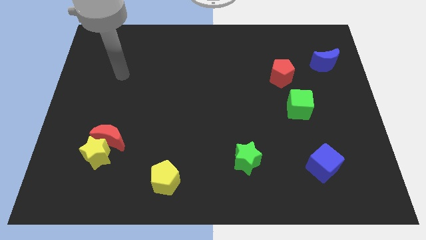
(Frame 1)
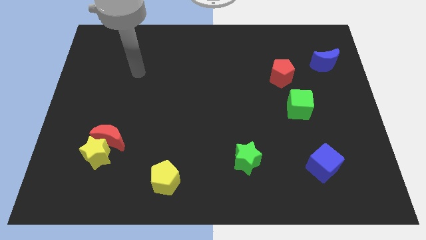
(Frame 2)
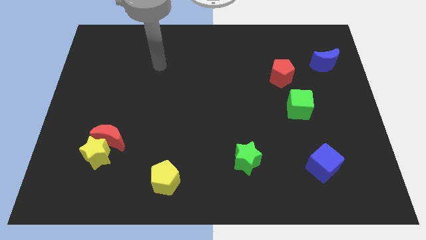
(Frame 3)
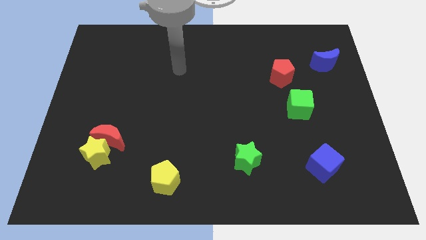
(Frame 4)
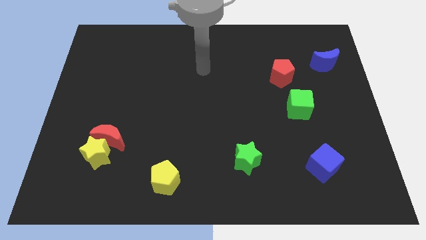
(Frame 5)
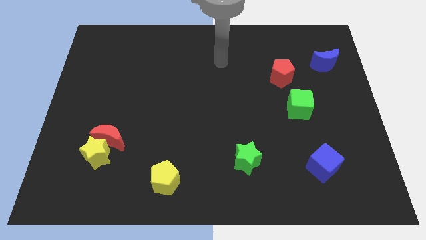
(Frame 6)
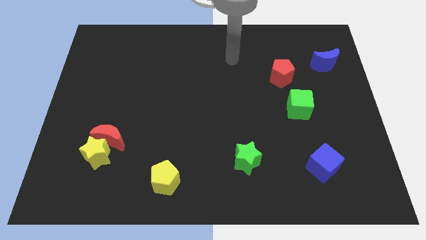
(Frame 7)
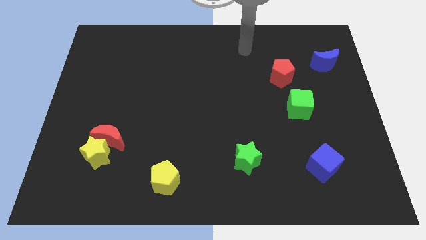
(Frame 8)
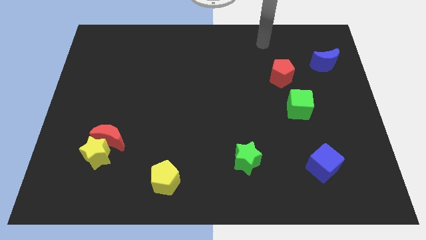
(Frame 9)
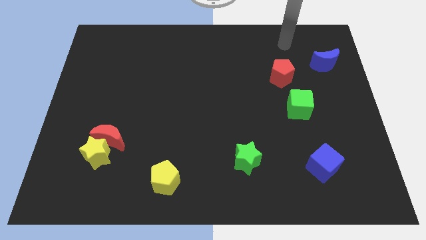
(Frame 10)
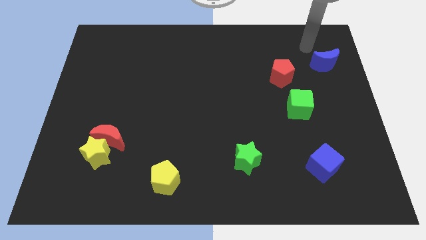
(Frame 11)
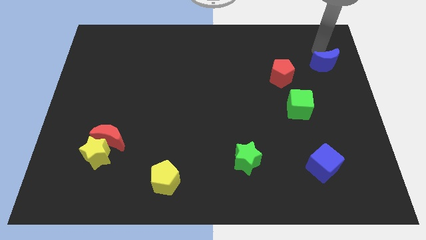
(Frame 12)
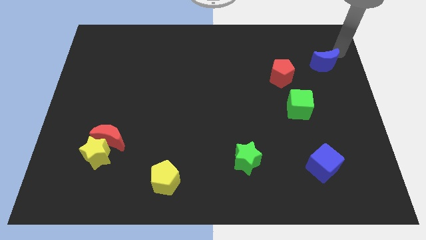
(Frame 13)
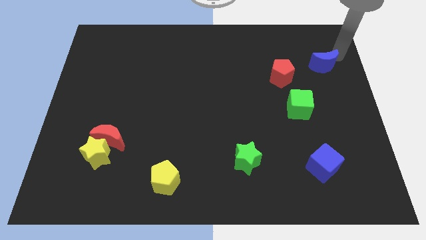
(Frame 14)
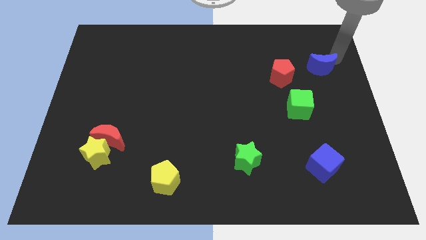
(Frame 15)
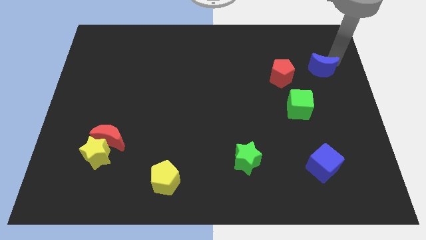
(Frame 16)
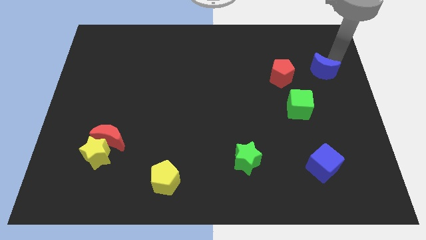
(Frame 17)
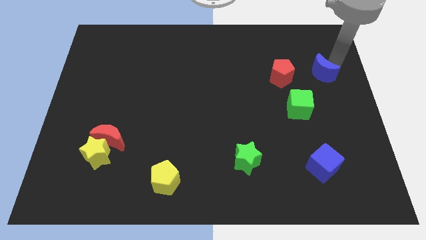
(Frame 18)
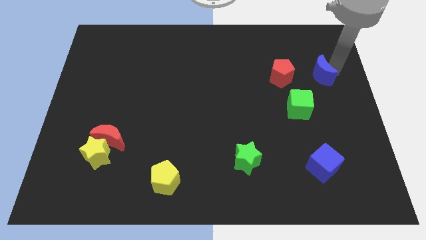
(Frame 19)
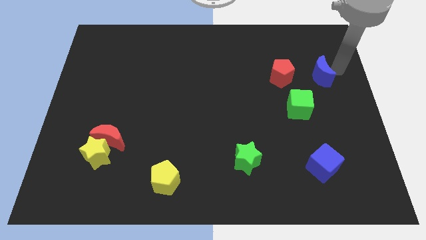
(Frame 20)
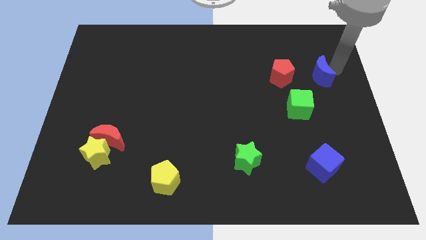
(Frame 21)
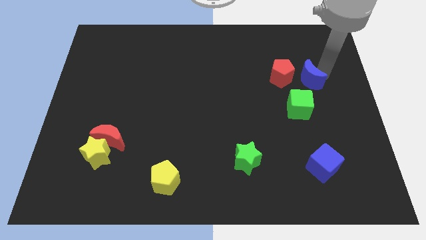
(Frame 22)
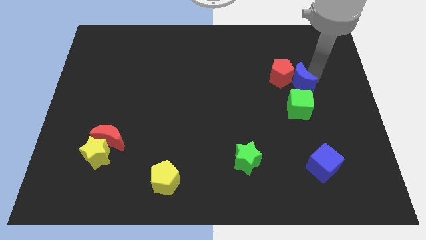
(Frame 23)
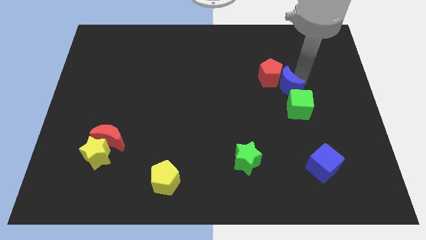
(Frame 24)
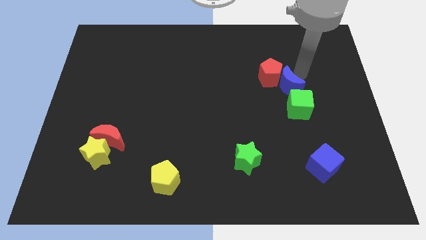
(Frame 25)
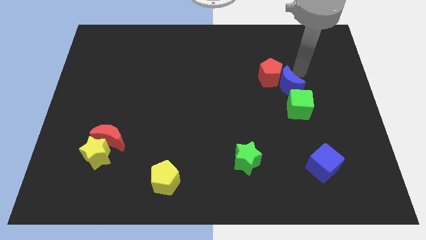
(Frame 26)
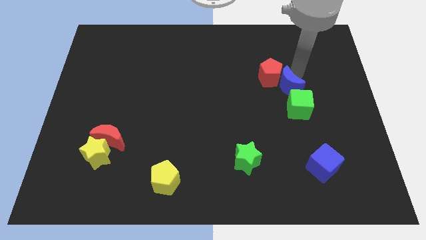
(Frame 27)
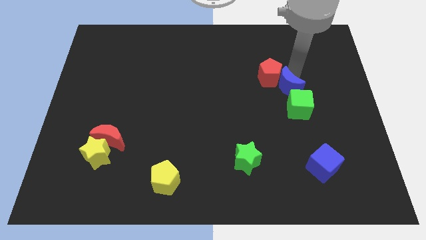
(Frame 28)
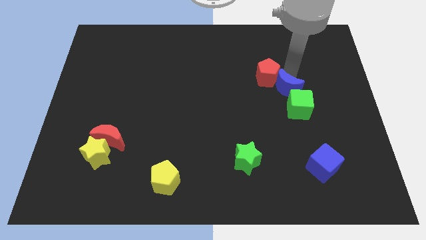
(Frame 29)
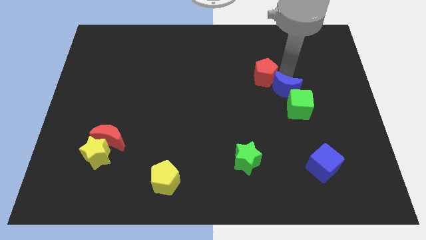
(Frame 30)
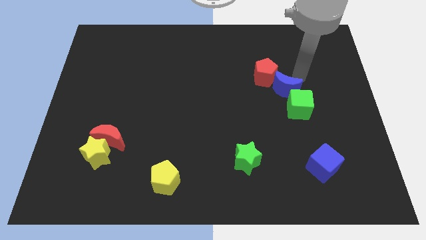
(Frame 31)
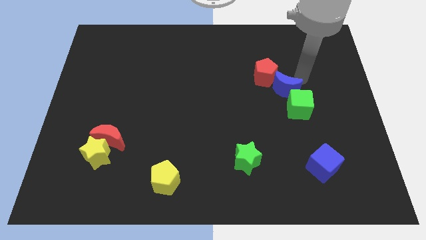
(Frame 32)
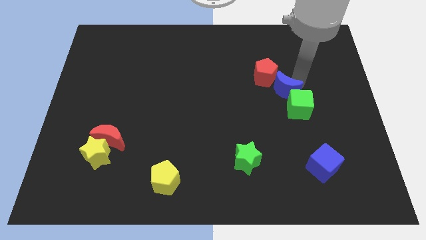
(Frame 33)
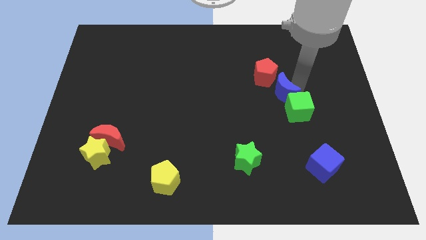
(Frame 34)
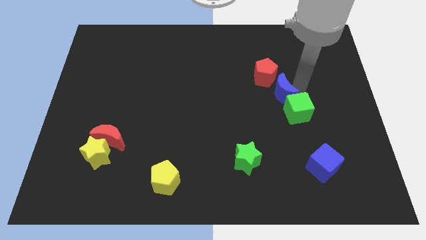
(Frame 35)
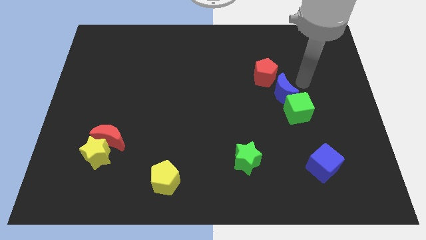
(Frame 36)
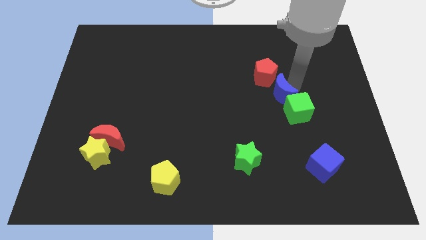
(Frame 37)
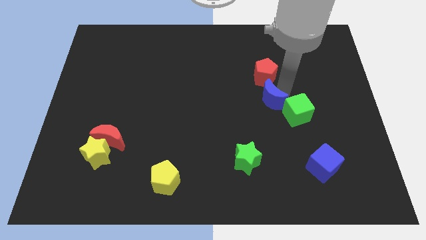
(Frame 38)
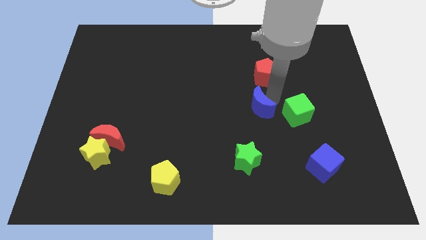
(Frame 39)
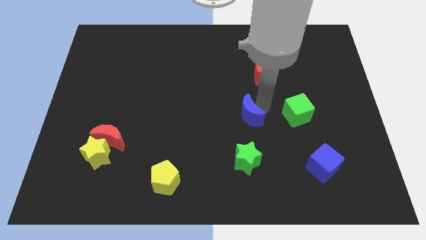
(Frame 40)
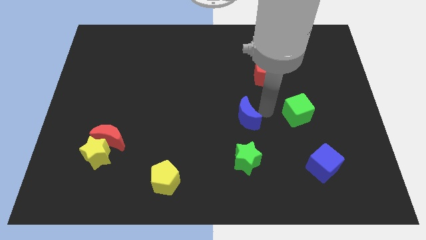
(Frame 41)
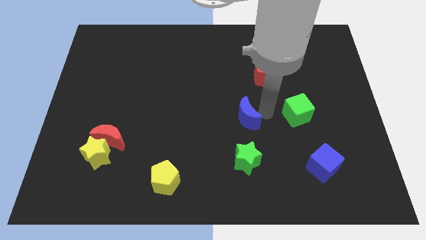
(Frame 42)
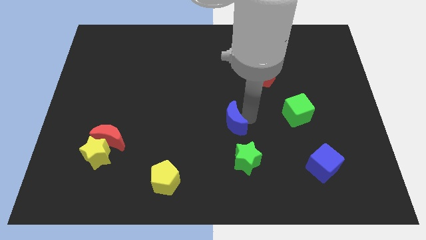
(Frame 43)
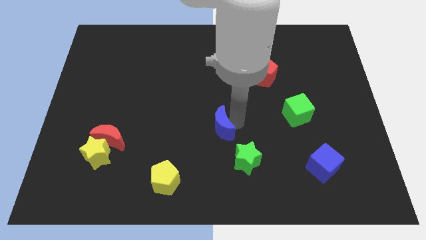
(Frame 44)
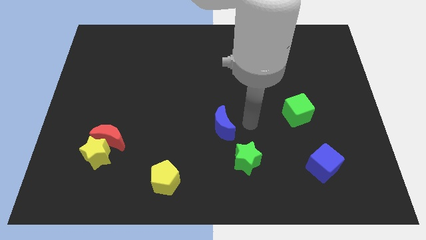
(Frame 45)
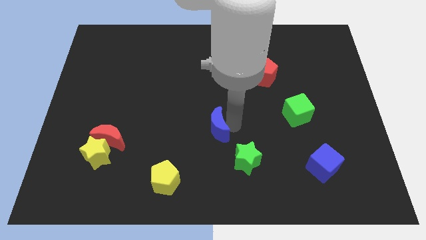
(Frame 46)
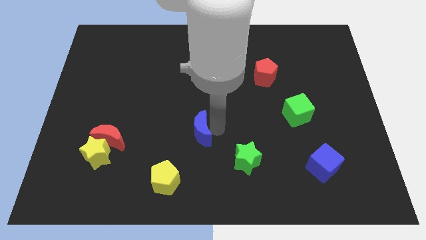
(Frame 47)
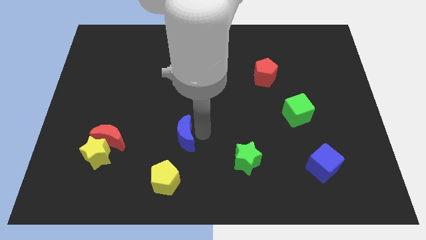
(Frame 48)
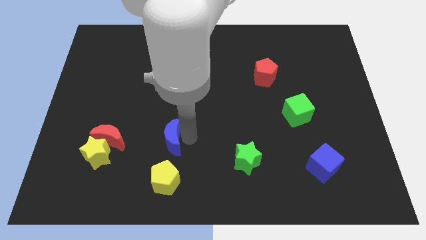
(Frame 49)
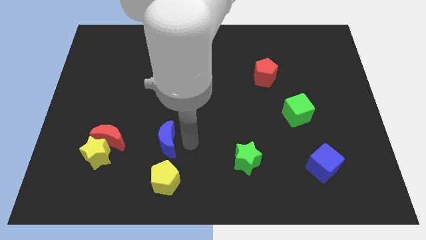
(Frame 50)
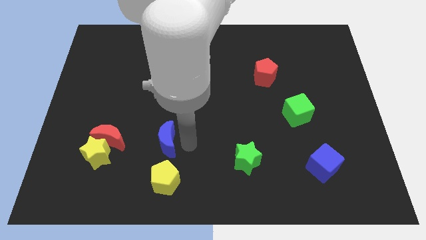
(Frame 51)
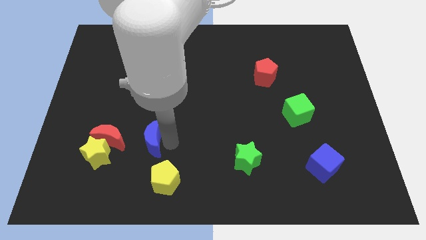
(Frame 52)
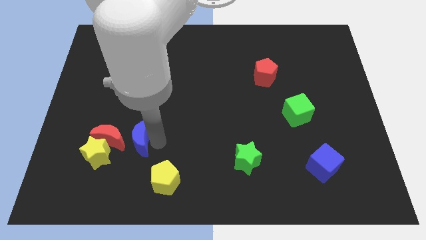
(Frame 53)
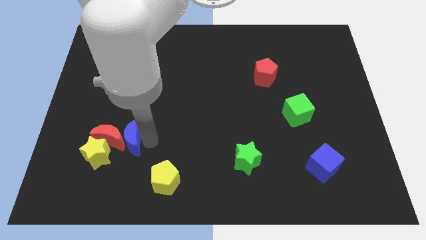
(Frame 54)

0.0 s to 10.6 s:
put the blue moon next to the red moon

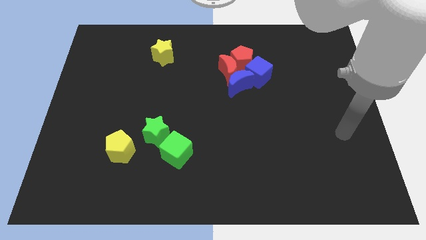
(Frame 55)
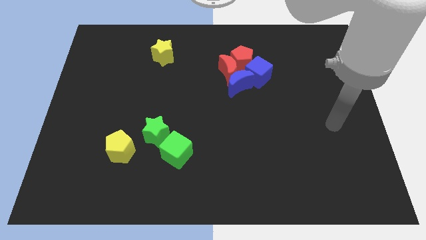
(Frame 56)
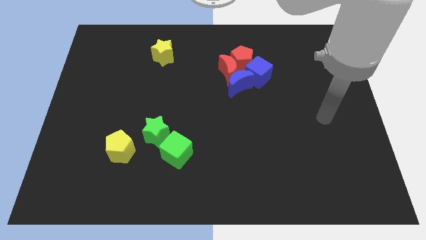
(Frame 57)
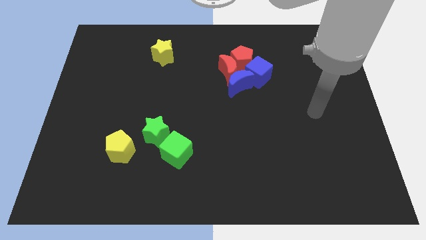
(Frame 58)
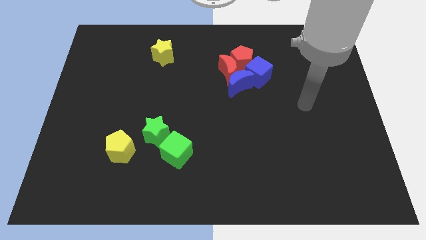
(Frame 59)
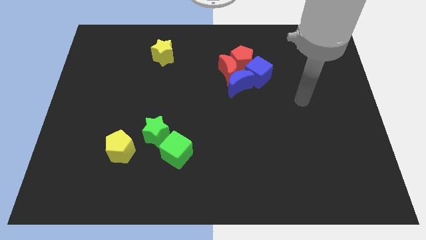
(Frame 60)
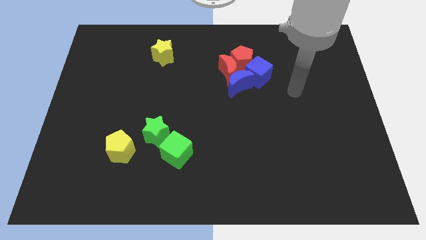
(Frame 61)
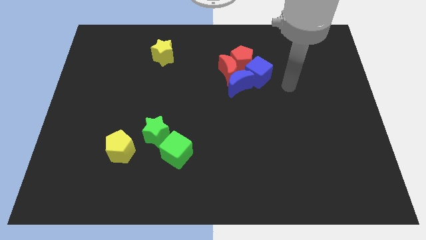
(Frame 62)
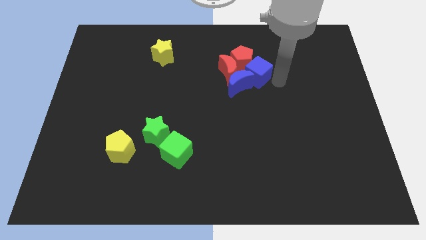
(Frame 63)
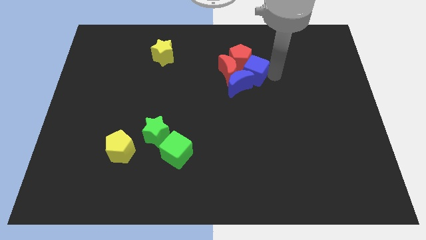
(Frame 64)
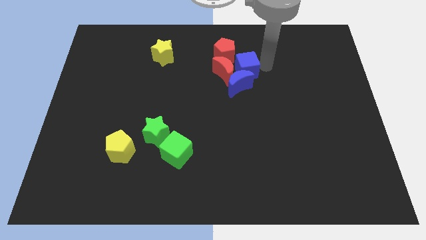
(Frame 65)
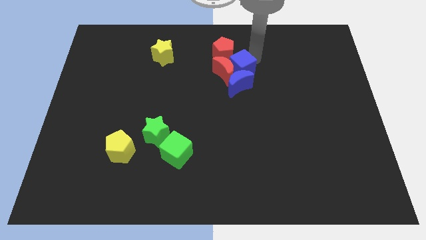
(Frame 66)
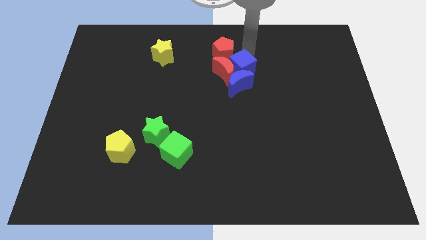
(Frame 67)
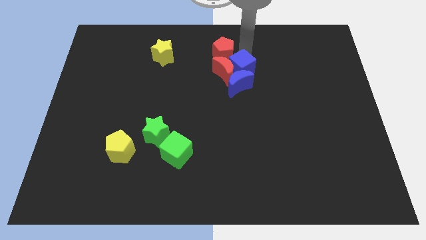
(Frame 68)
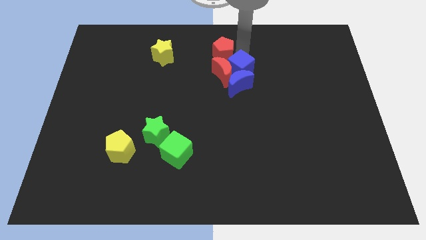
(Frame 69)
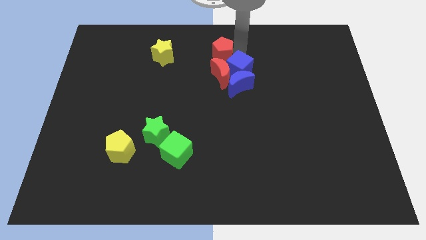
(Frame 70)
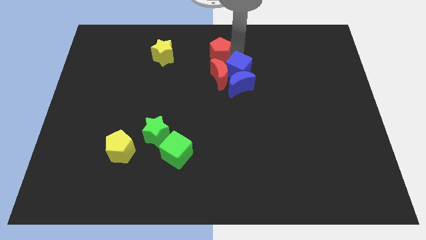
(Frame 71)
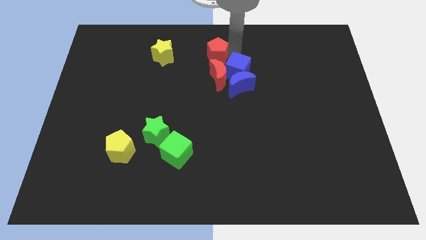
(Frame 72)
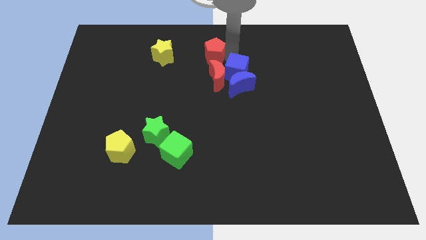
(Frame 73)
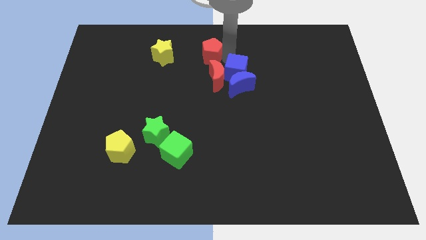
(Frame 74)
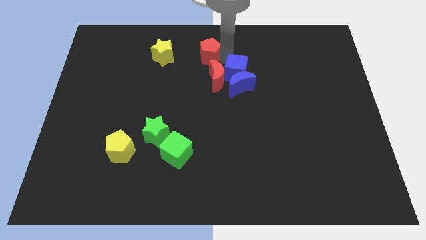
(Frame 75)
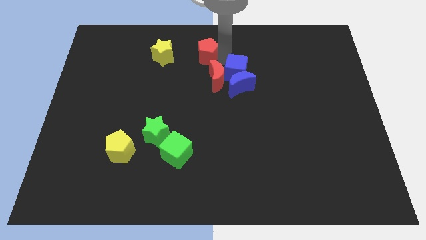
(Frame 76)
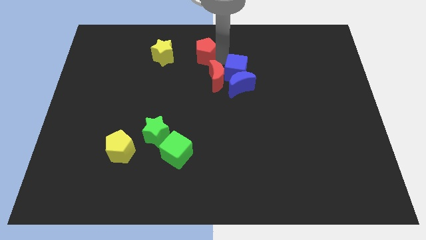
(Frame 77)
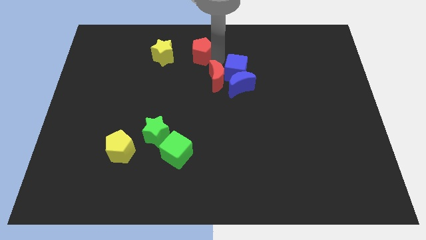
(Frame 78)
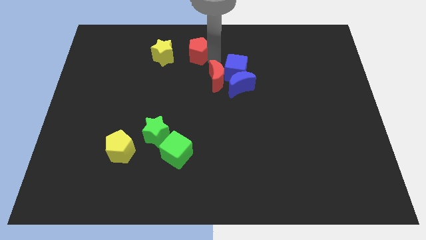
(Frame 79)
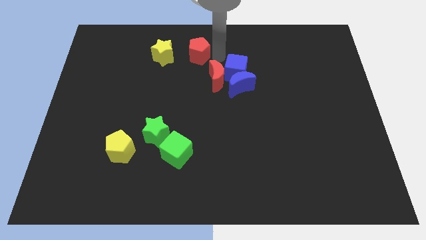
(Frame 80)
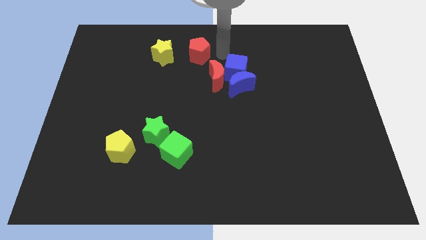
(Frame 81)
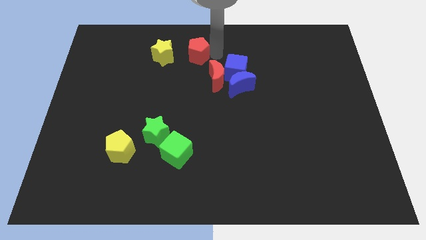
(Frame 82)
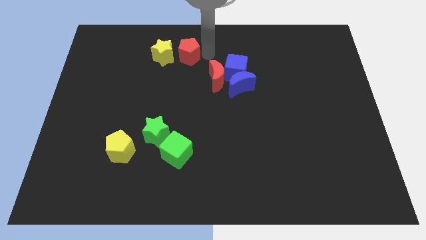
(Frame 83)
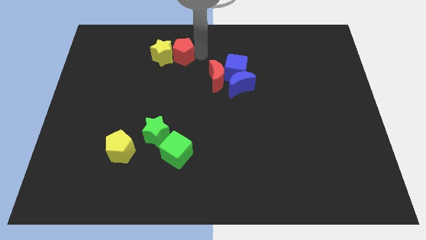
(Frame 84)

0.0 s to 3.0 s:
slide the red pentagon to the yellow star
